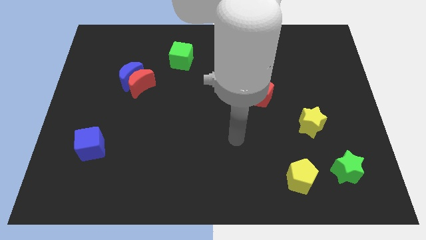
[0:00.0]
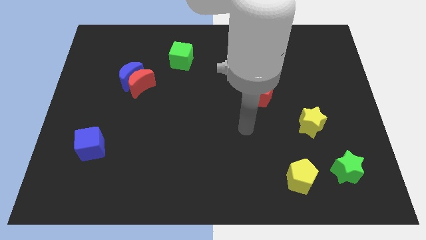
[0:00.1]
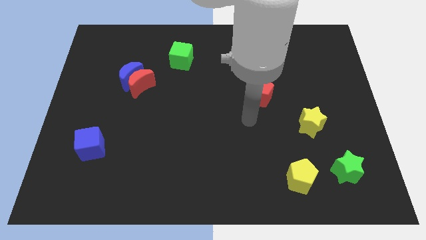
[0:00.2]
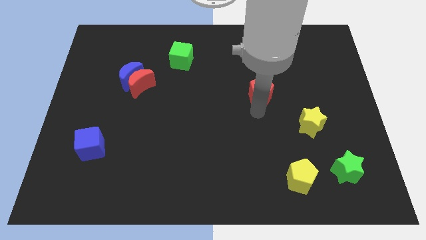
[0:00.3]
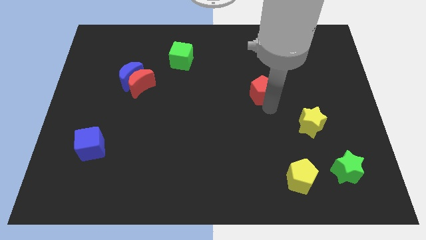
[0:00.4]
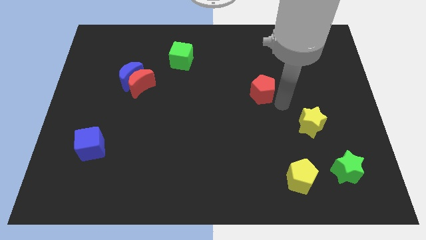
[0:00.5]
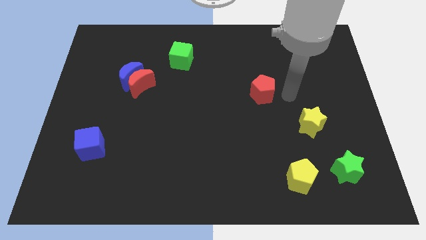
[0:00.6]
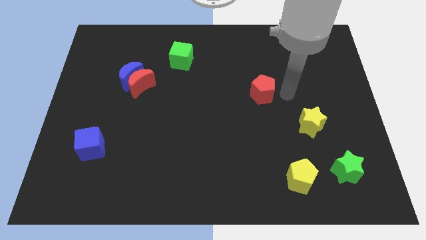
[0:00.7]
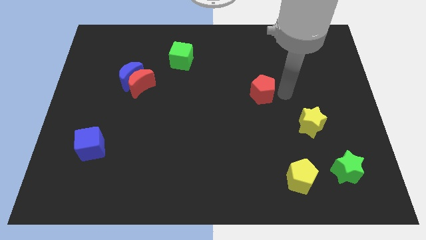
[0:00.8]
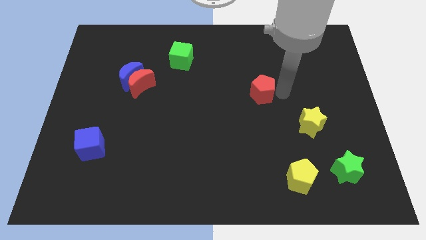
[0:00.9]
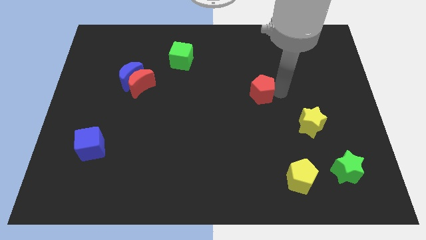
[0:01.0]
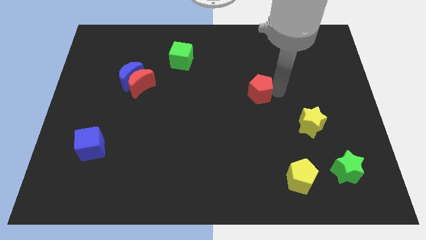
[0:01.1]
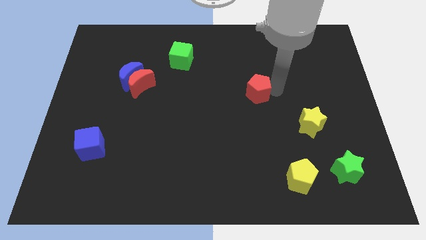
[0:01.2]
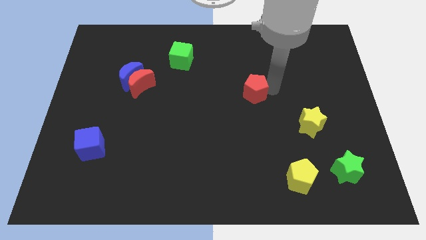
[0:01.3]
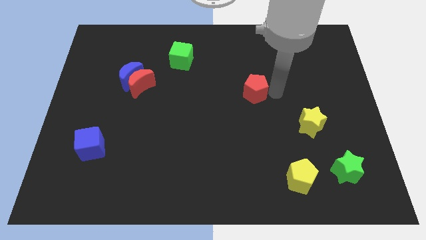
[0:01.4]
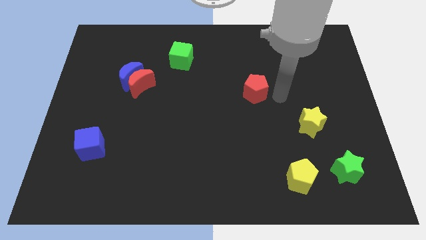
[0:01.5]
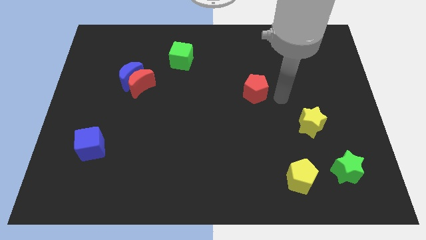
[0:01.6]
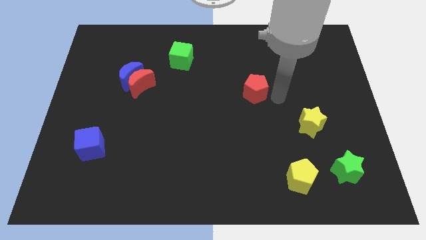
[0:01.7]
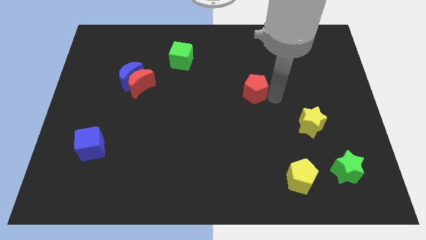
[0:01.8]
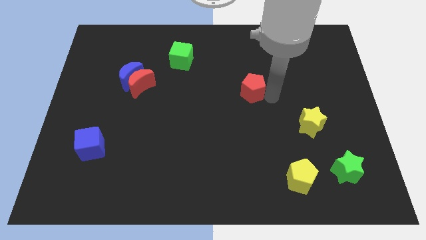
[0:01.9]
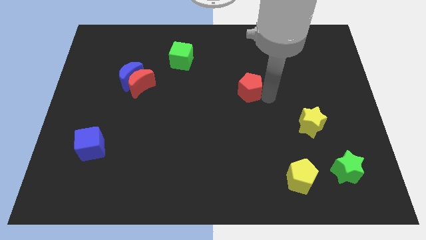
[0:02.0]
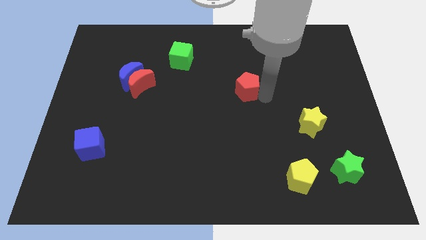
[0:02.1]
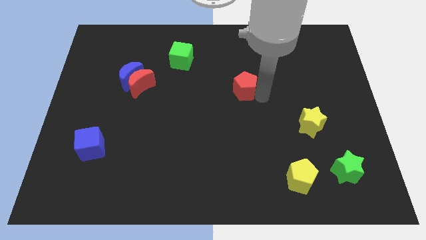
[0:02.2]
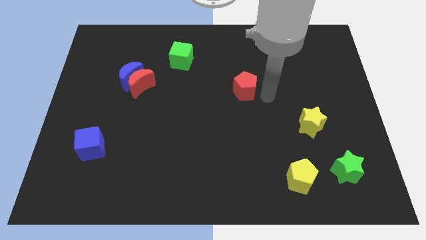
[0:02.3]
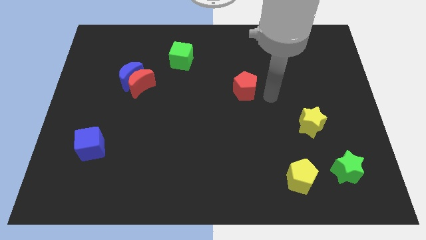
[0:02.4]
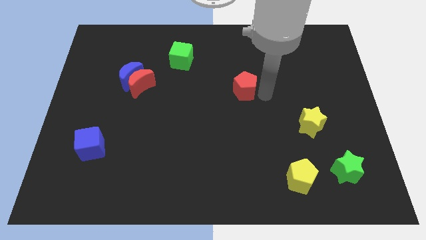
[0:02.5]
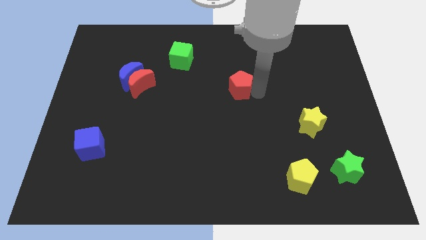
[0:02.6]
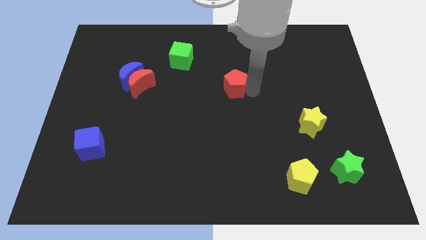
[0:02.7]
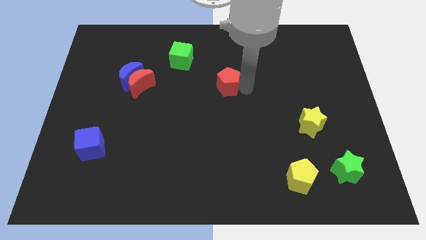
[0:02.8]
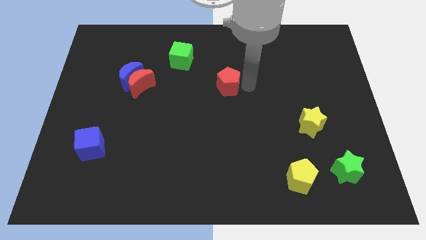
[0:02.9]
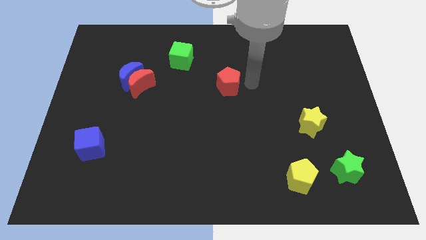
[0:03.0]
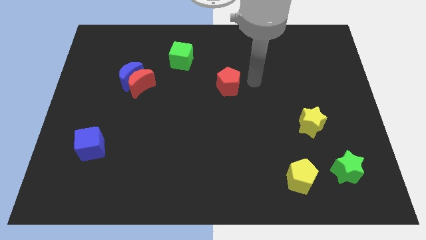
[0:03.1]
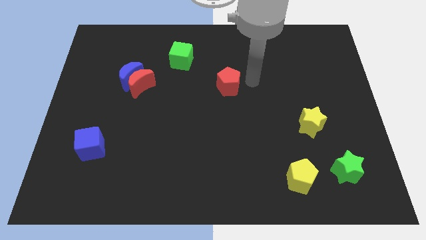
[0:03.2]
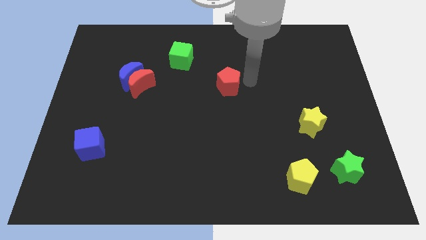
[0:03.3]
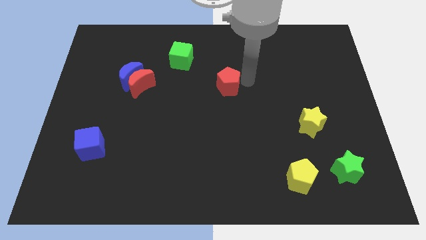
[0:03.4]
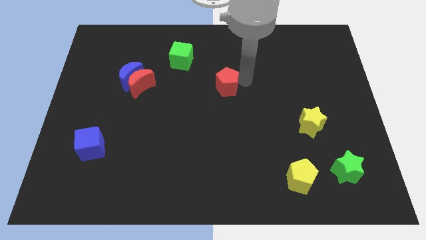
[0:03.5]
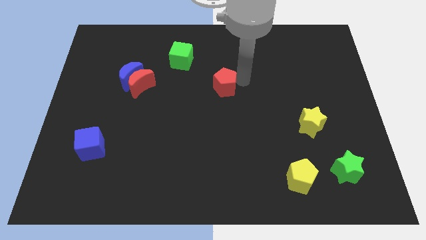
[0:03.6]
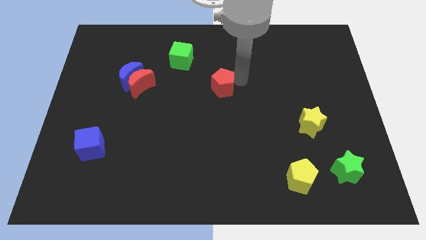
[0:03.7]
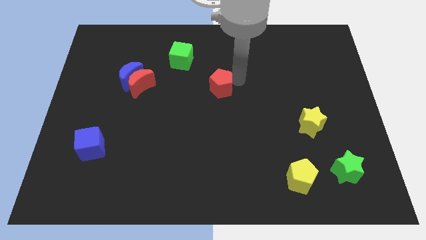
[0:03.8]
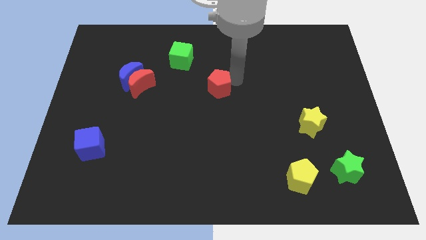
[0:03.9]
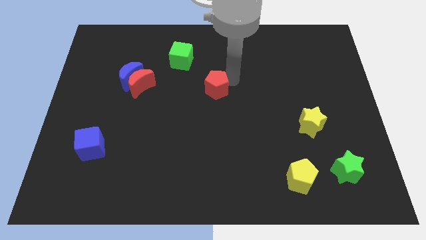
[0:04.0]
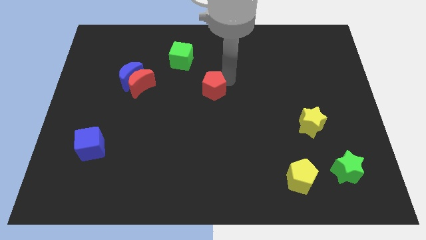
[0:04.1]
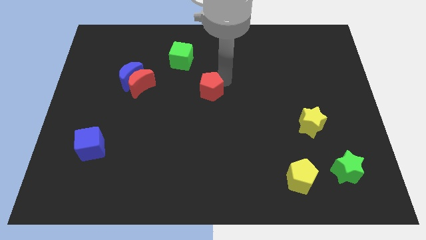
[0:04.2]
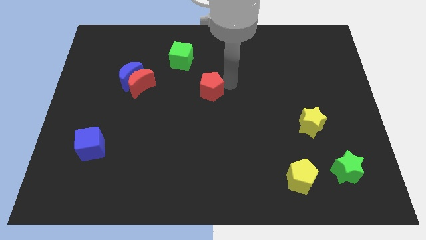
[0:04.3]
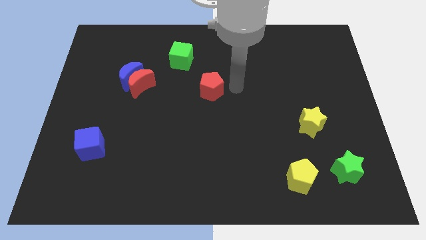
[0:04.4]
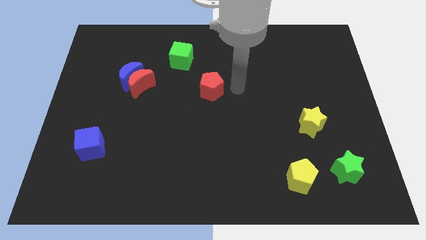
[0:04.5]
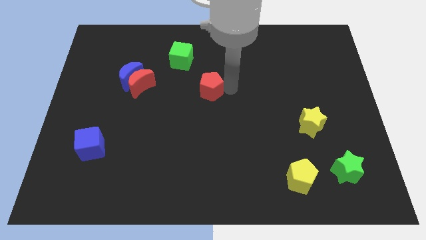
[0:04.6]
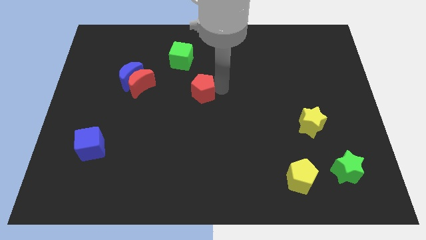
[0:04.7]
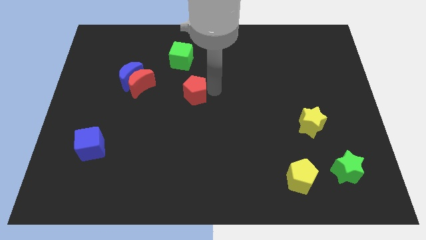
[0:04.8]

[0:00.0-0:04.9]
put the red pentagon to the bottom of the green cube

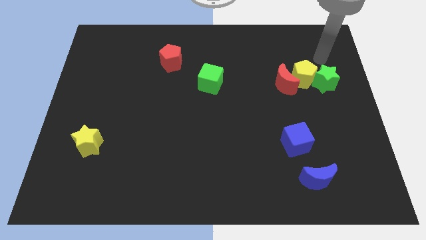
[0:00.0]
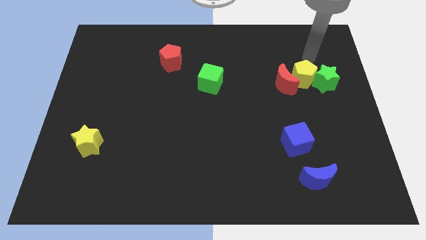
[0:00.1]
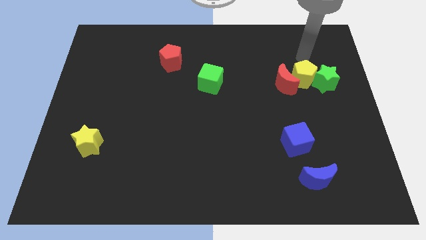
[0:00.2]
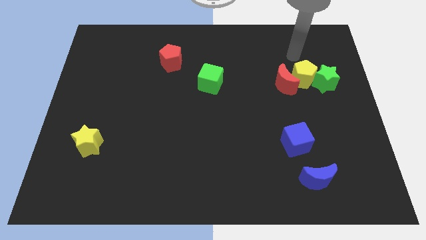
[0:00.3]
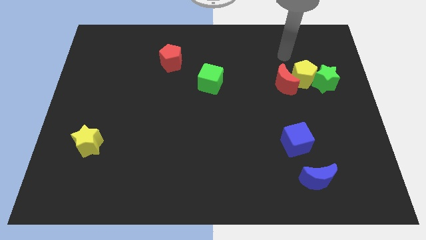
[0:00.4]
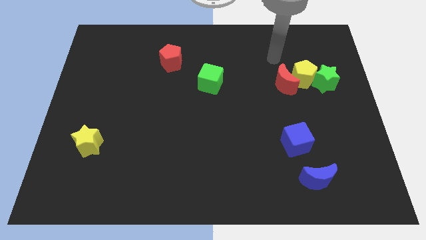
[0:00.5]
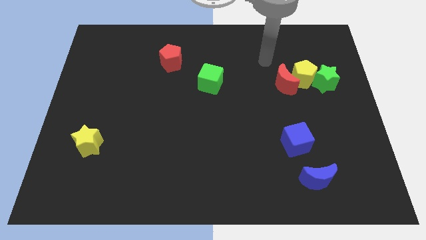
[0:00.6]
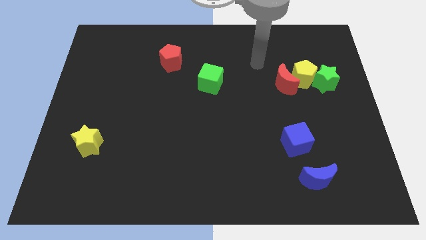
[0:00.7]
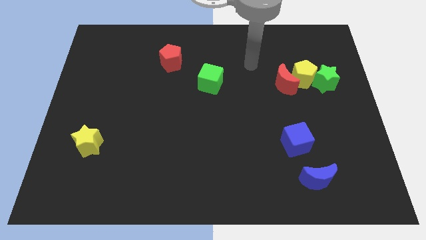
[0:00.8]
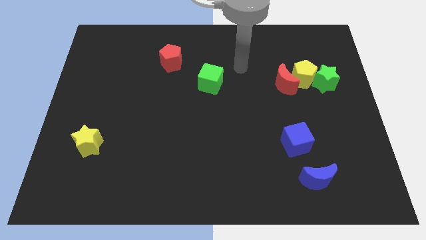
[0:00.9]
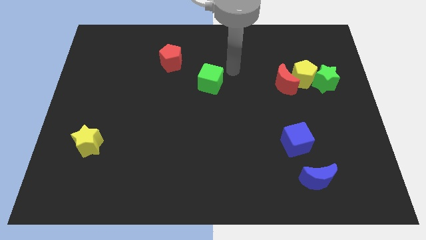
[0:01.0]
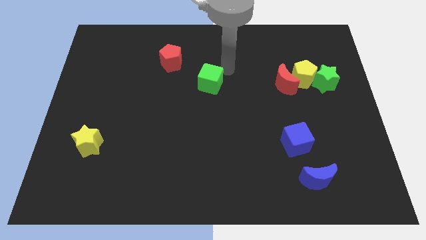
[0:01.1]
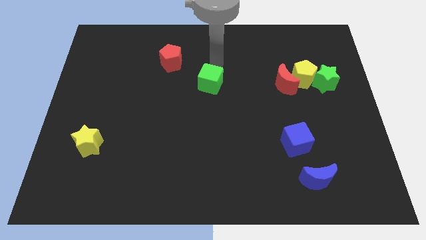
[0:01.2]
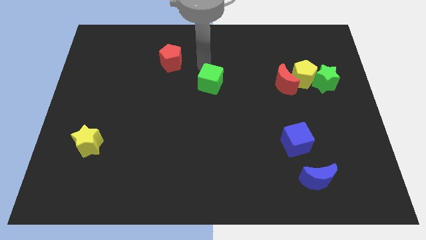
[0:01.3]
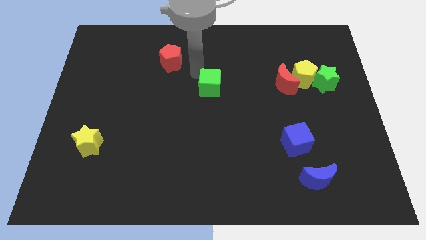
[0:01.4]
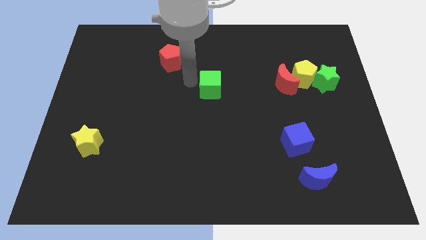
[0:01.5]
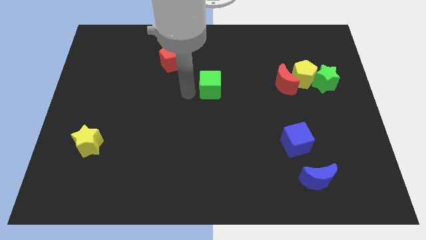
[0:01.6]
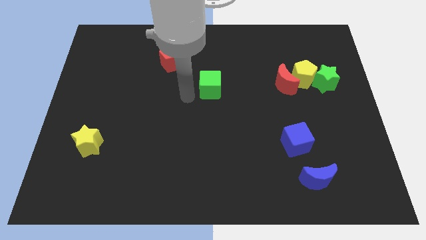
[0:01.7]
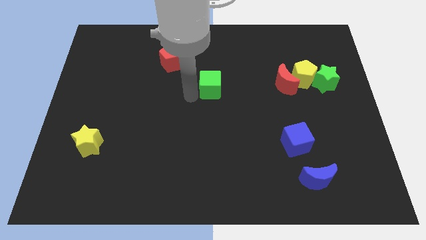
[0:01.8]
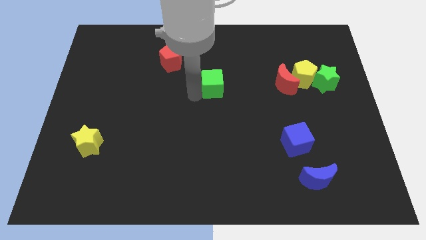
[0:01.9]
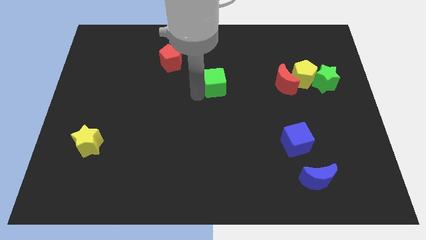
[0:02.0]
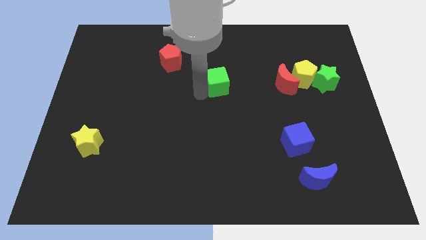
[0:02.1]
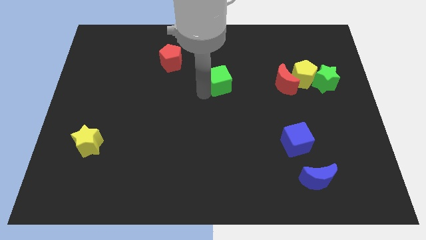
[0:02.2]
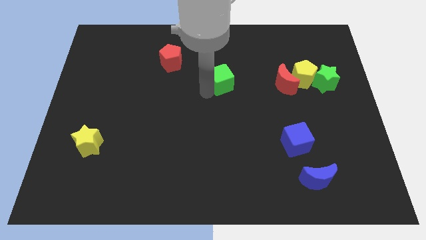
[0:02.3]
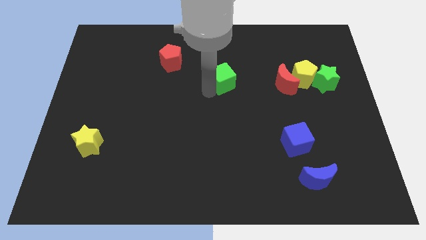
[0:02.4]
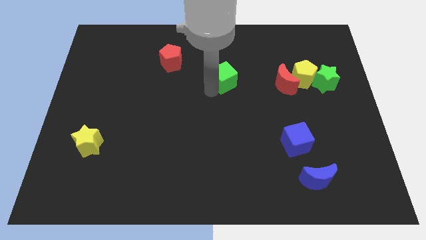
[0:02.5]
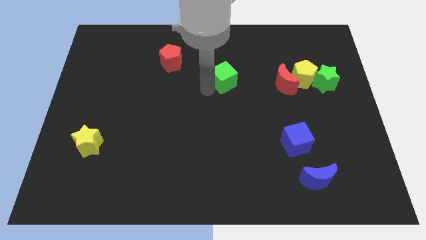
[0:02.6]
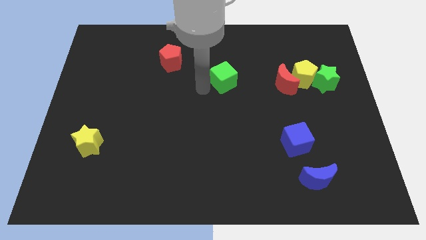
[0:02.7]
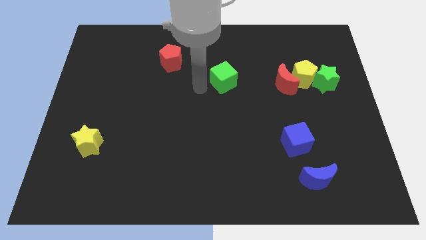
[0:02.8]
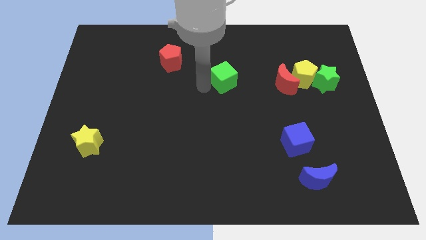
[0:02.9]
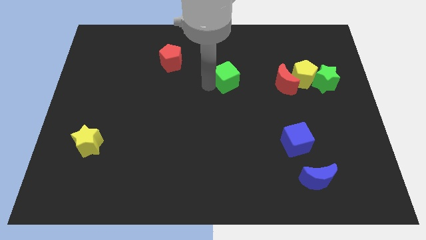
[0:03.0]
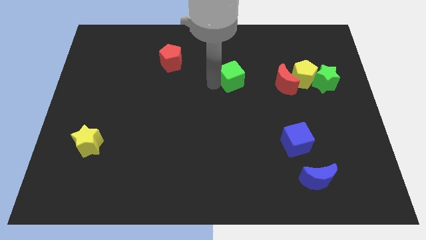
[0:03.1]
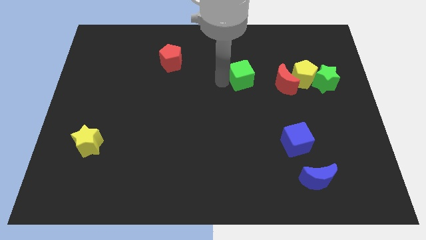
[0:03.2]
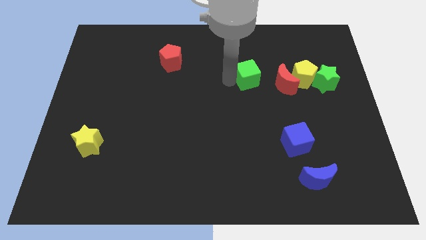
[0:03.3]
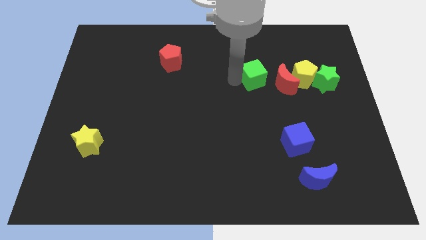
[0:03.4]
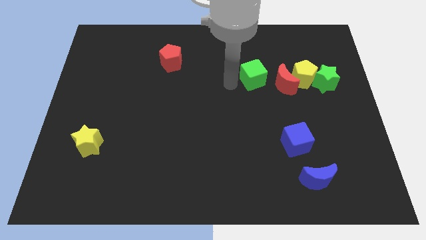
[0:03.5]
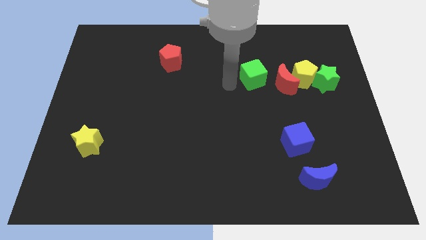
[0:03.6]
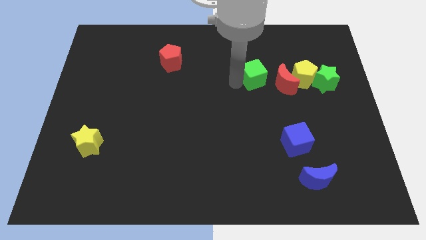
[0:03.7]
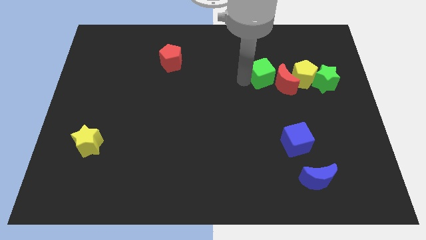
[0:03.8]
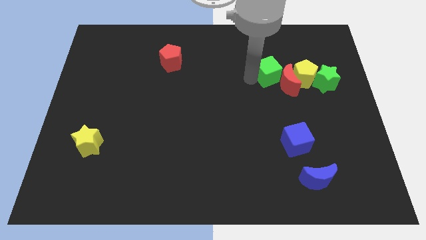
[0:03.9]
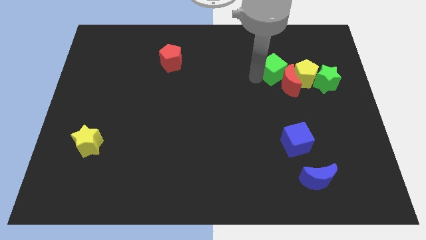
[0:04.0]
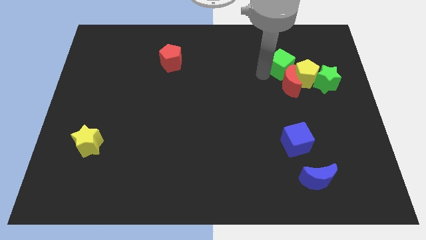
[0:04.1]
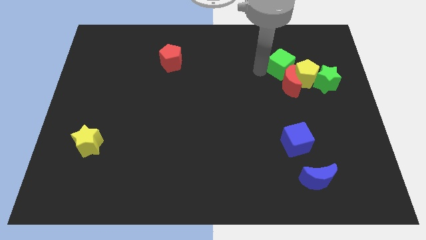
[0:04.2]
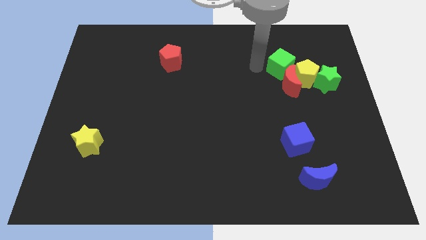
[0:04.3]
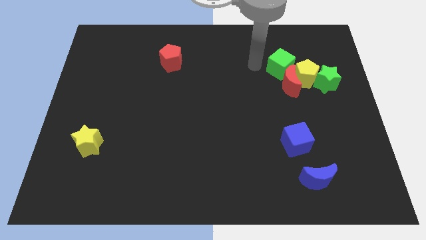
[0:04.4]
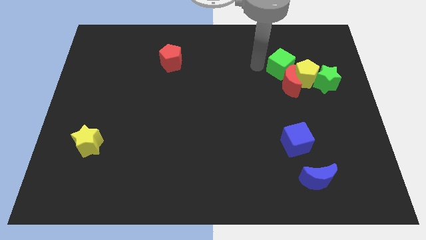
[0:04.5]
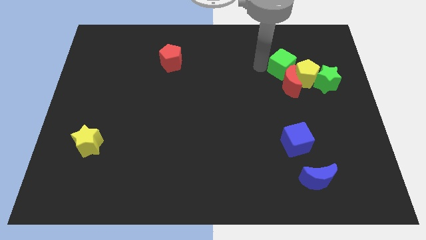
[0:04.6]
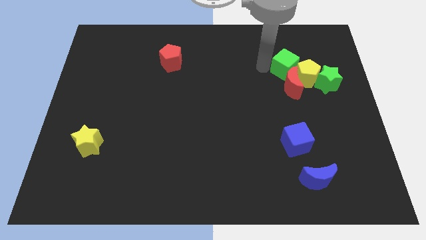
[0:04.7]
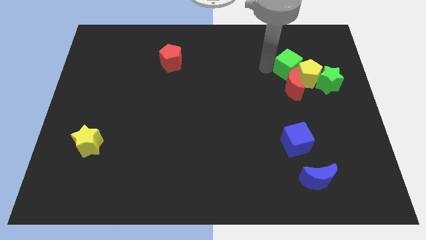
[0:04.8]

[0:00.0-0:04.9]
move the green cube to the top right of the red moon
